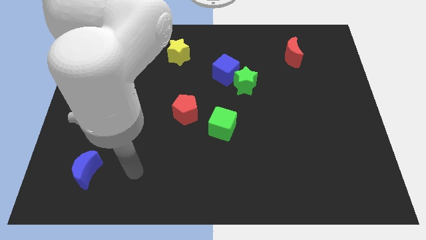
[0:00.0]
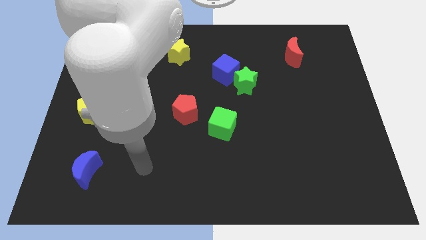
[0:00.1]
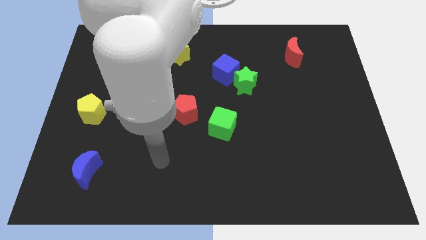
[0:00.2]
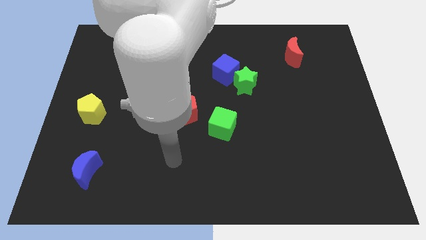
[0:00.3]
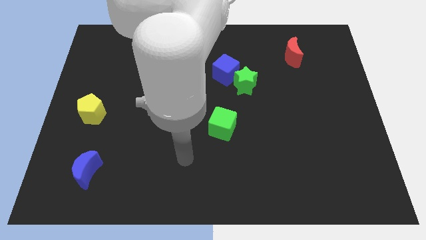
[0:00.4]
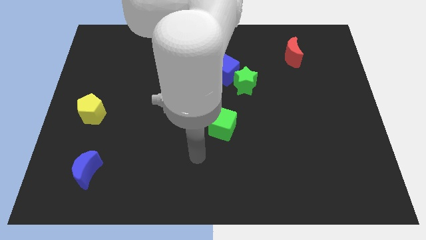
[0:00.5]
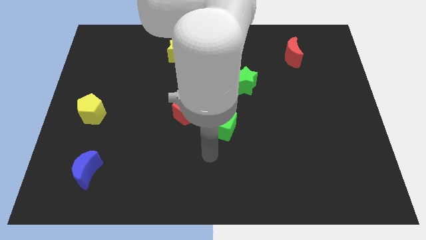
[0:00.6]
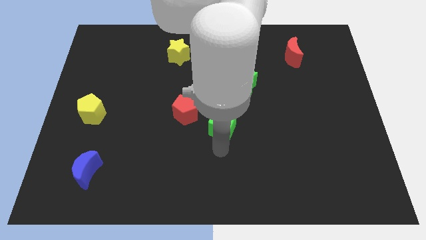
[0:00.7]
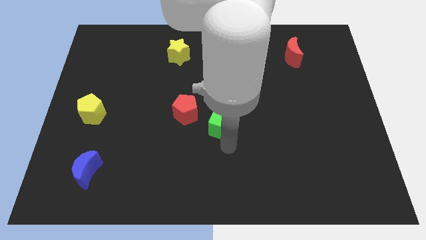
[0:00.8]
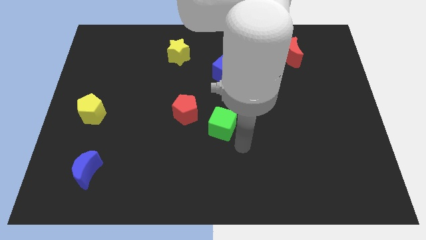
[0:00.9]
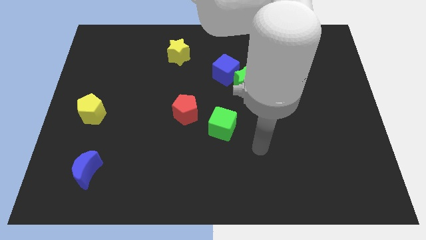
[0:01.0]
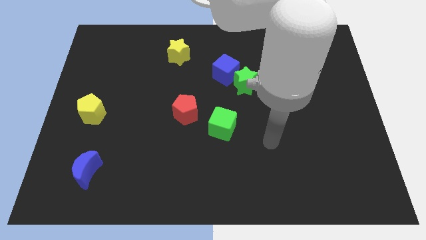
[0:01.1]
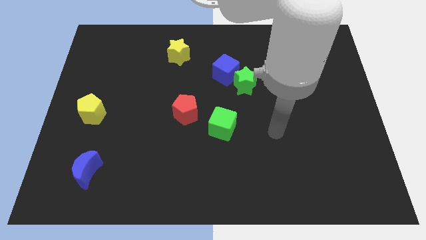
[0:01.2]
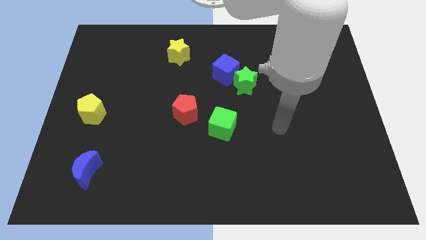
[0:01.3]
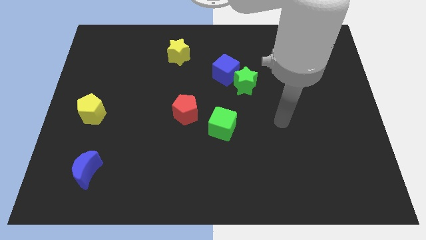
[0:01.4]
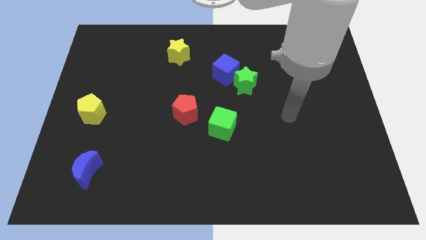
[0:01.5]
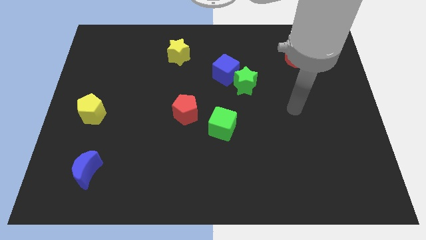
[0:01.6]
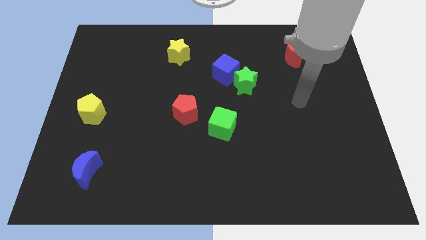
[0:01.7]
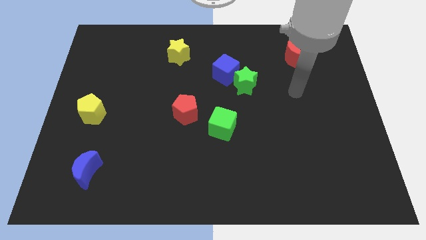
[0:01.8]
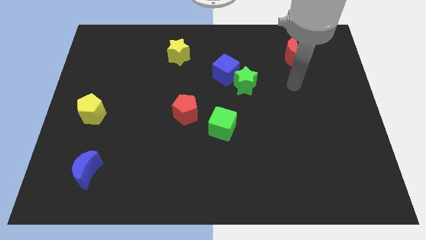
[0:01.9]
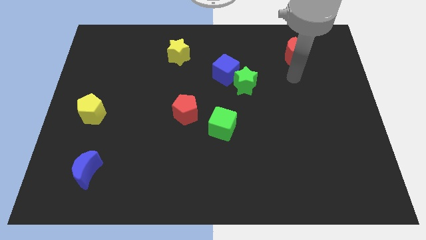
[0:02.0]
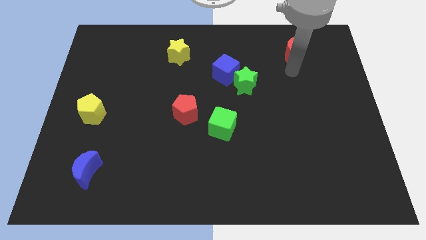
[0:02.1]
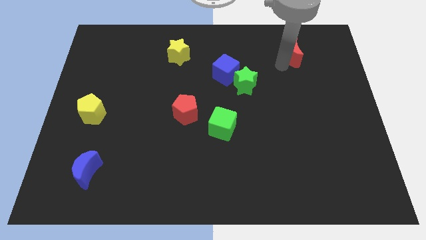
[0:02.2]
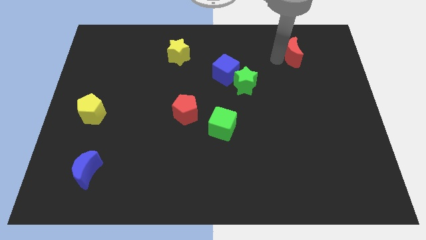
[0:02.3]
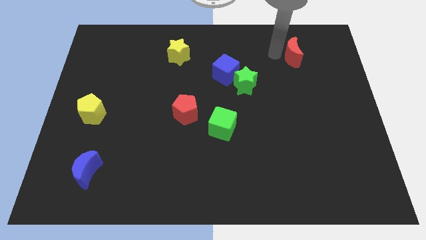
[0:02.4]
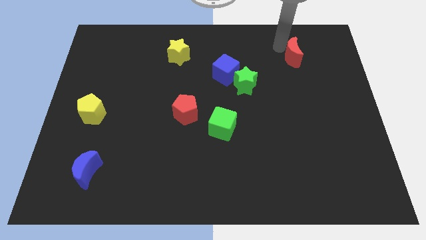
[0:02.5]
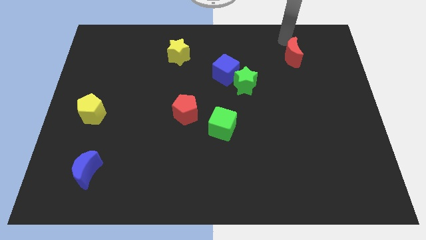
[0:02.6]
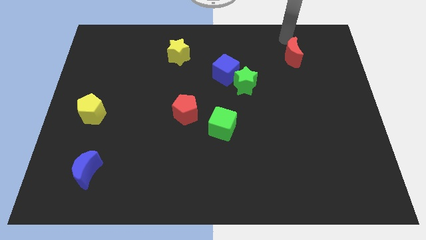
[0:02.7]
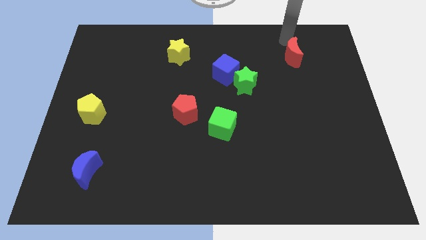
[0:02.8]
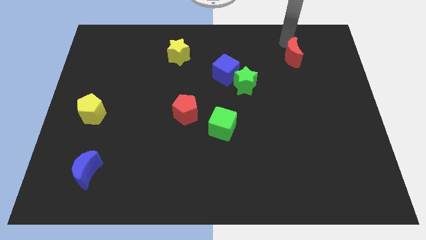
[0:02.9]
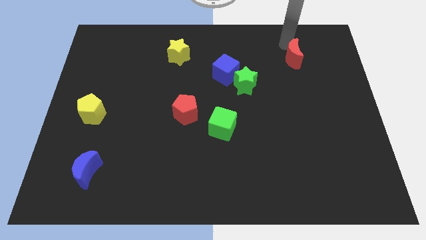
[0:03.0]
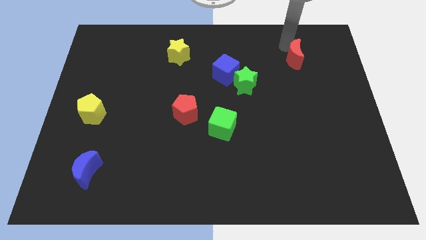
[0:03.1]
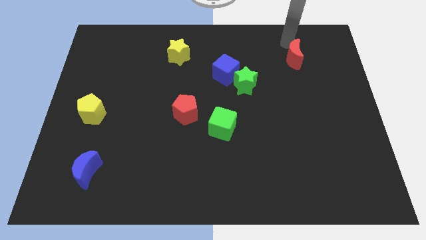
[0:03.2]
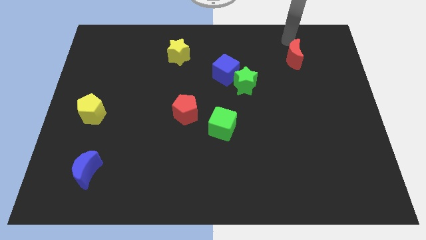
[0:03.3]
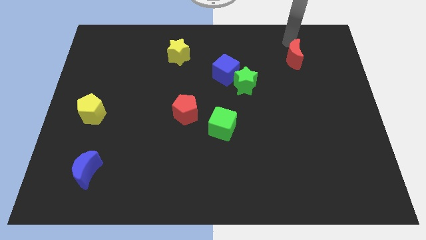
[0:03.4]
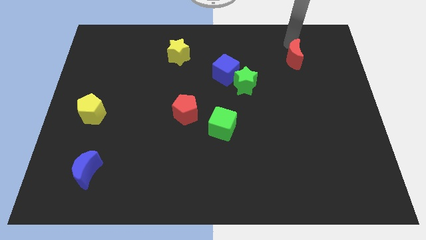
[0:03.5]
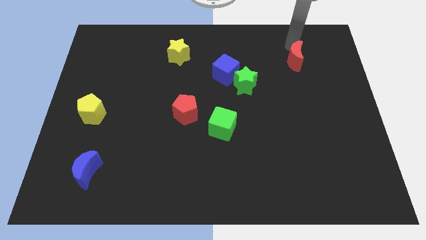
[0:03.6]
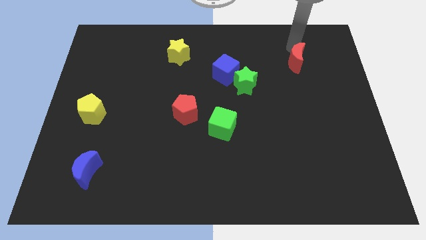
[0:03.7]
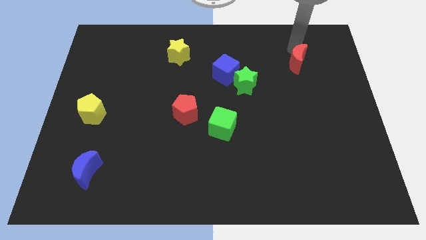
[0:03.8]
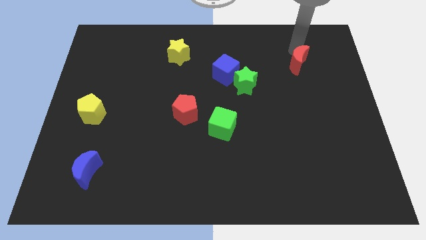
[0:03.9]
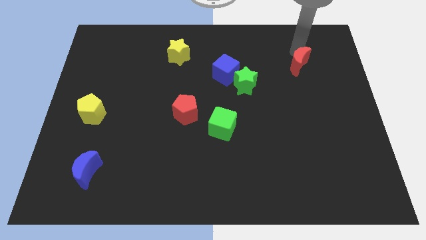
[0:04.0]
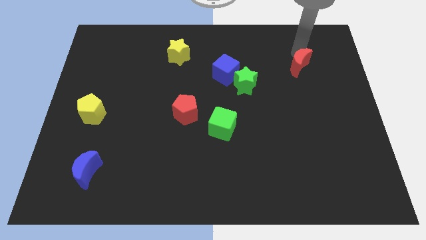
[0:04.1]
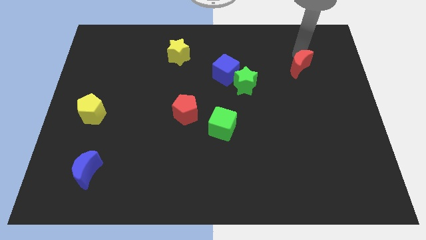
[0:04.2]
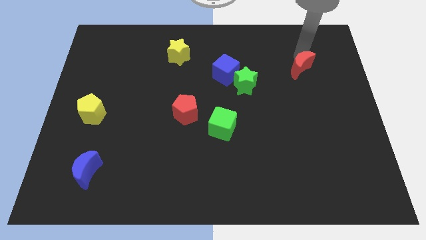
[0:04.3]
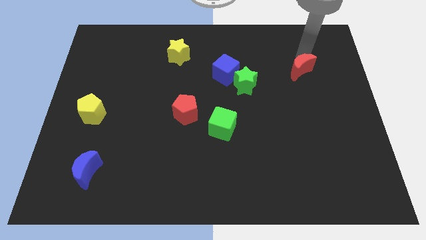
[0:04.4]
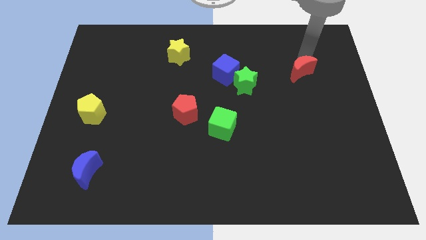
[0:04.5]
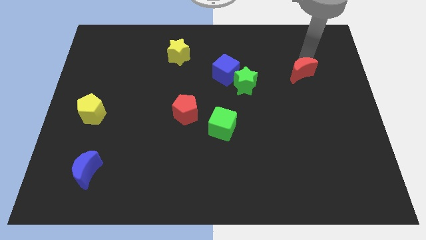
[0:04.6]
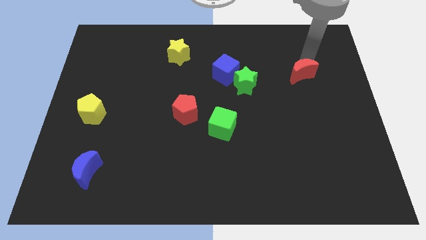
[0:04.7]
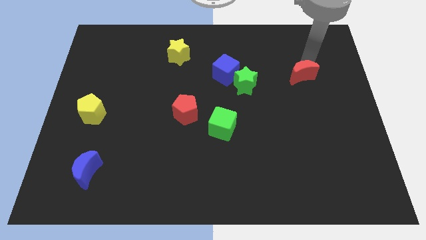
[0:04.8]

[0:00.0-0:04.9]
move the red moon a little down

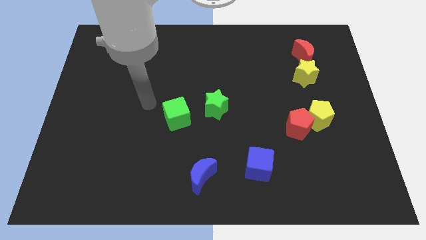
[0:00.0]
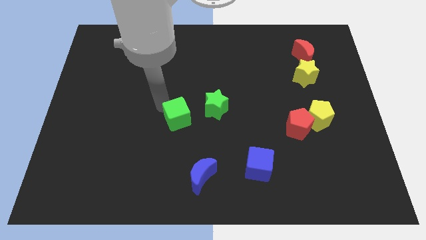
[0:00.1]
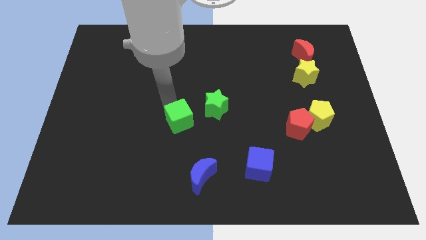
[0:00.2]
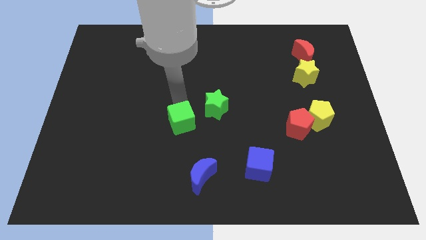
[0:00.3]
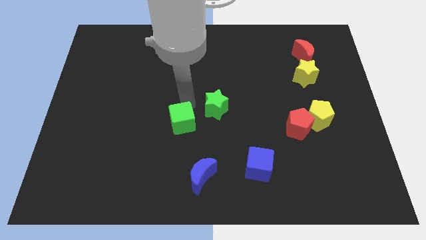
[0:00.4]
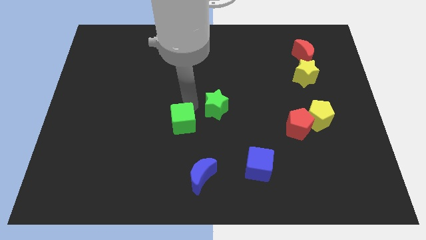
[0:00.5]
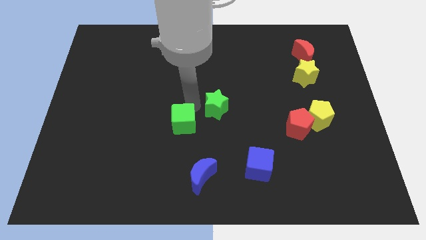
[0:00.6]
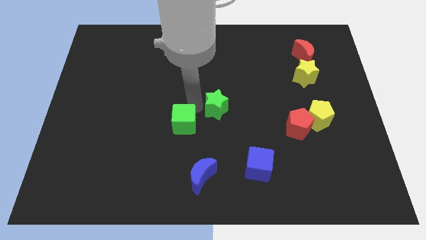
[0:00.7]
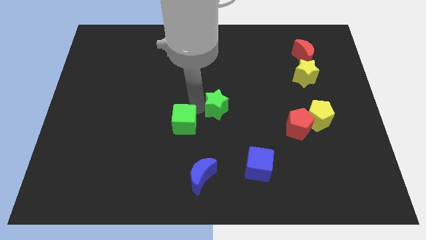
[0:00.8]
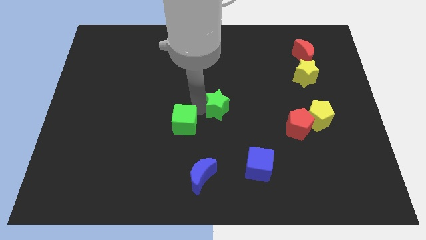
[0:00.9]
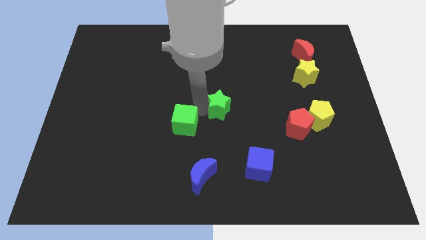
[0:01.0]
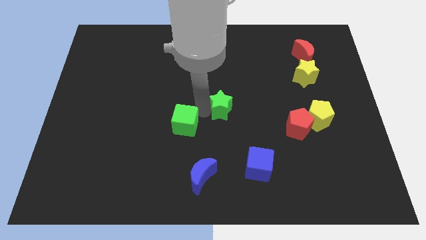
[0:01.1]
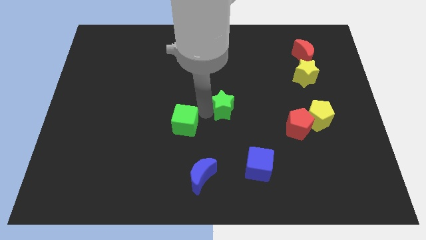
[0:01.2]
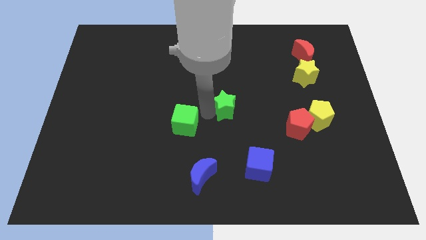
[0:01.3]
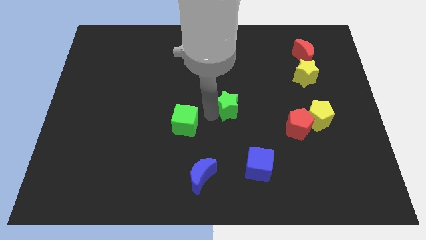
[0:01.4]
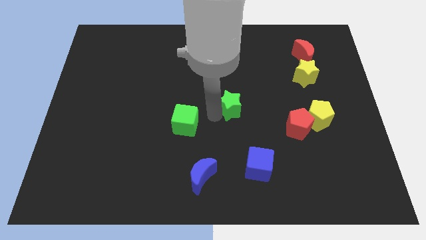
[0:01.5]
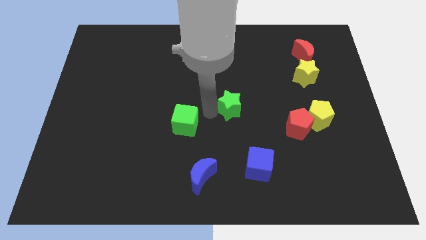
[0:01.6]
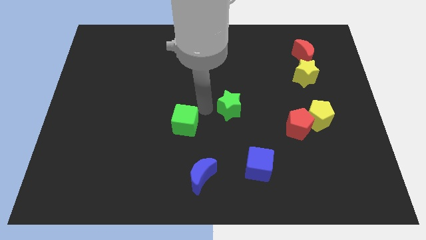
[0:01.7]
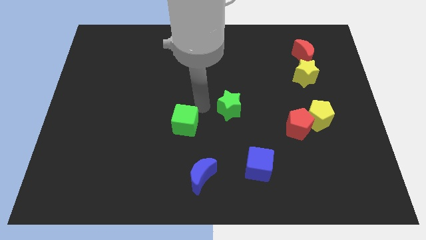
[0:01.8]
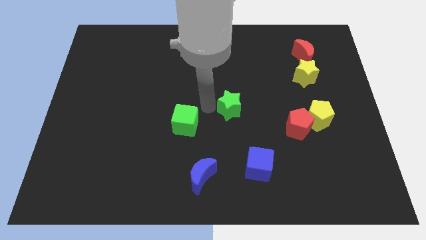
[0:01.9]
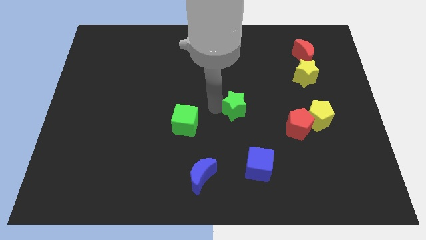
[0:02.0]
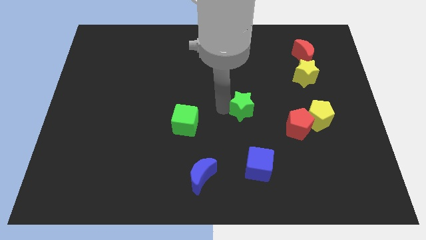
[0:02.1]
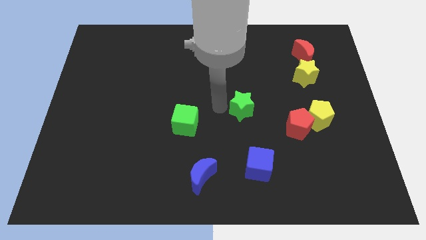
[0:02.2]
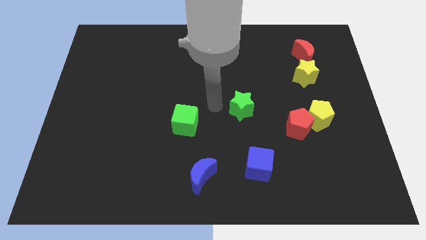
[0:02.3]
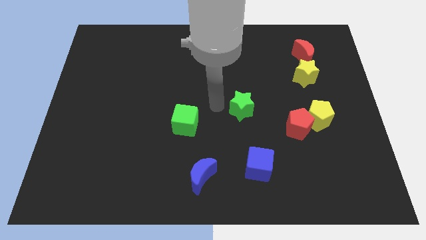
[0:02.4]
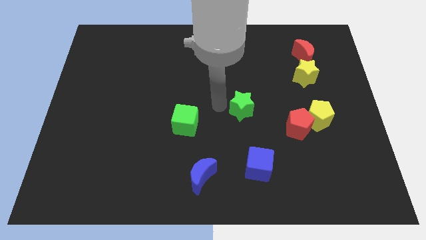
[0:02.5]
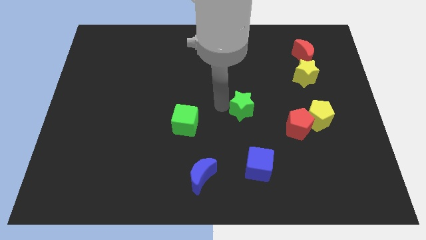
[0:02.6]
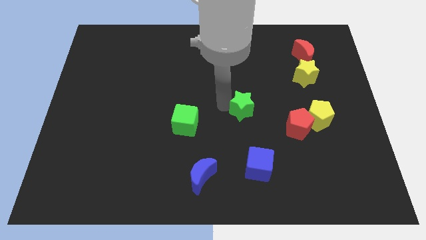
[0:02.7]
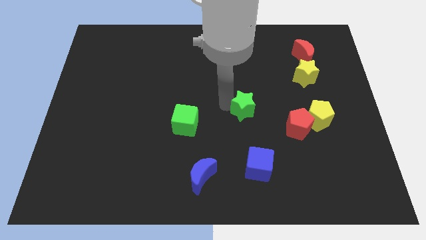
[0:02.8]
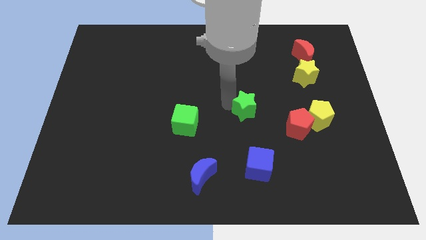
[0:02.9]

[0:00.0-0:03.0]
slightly push the green star to the right
